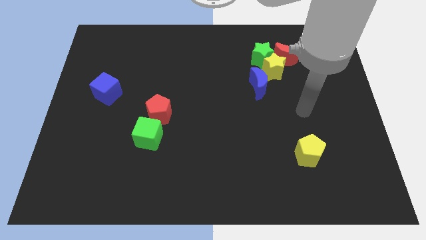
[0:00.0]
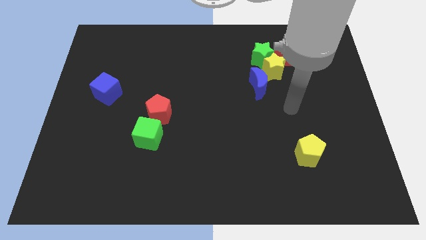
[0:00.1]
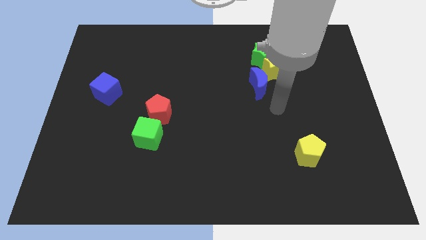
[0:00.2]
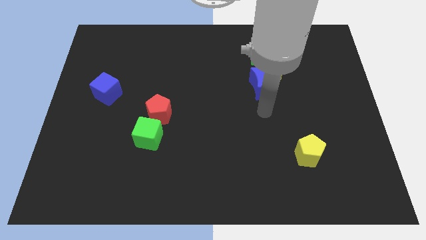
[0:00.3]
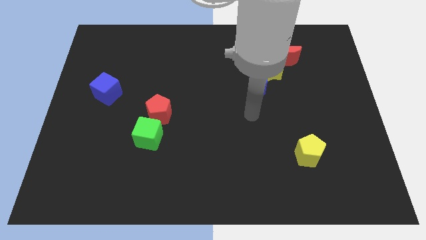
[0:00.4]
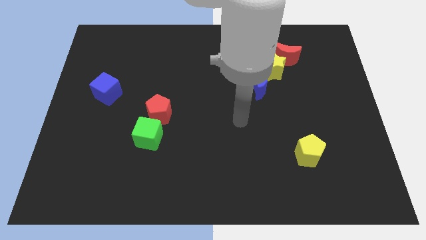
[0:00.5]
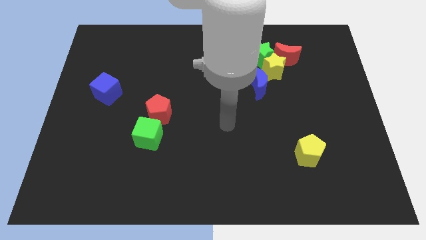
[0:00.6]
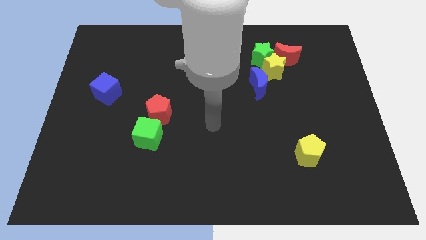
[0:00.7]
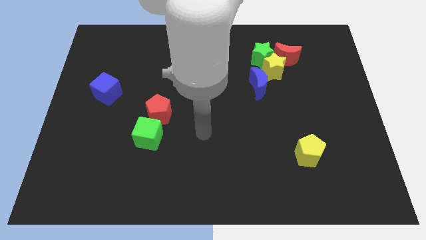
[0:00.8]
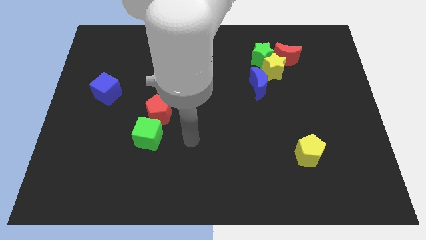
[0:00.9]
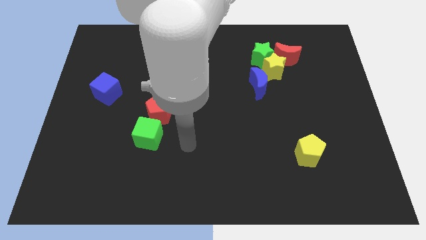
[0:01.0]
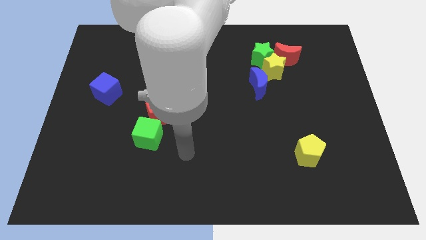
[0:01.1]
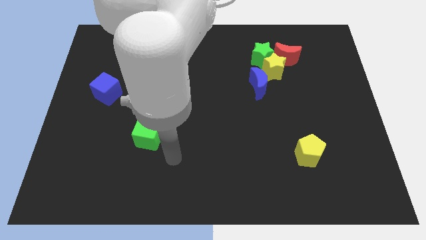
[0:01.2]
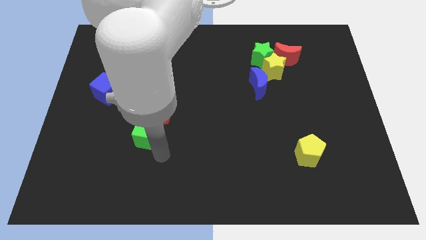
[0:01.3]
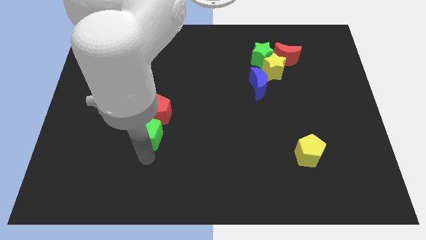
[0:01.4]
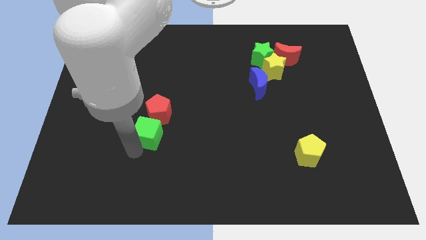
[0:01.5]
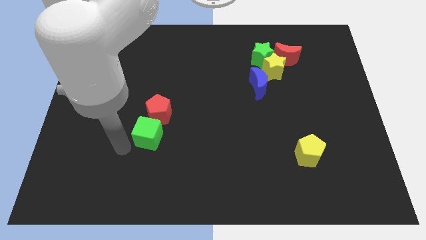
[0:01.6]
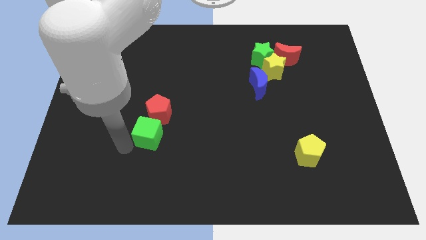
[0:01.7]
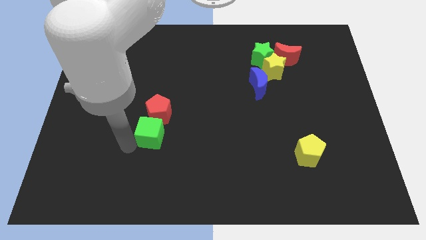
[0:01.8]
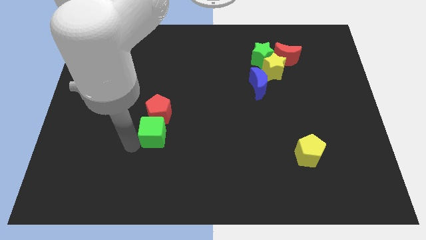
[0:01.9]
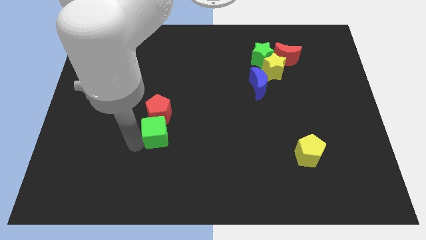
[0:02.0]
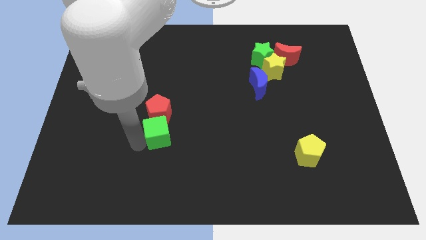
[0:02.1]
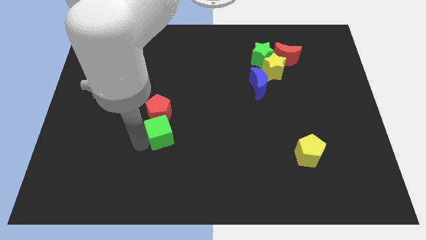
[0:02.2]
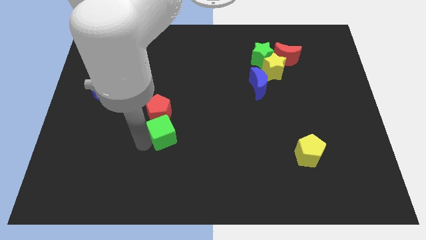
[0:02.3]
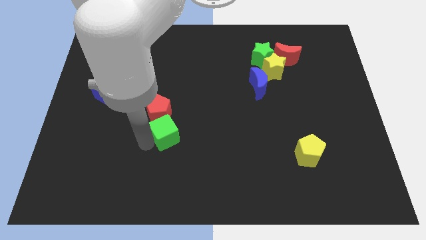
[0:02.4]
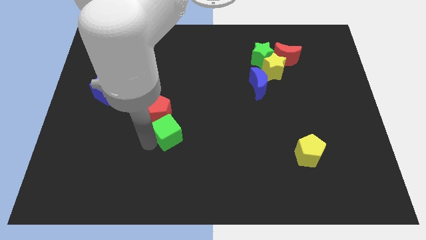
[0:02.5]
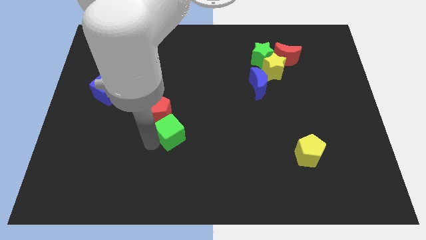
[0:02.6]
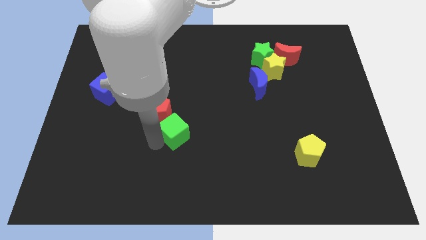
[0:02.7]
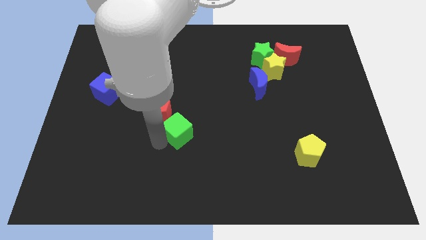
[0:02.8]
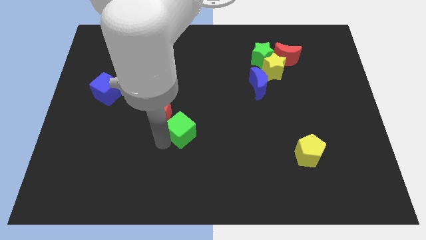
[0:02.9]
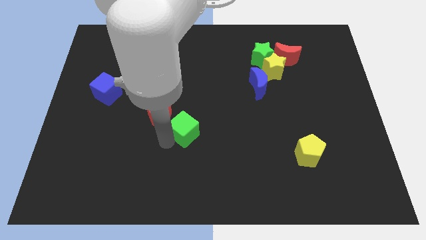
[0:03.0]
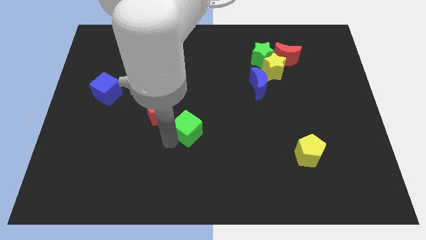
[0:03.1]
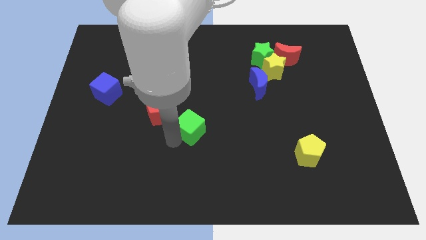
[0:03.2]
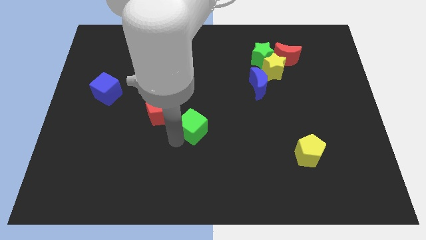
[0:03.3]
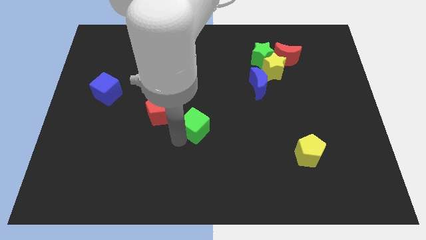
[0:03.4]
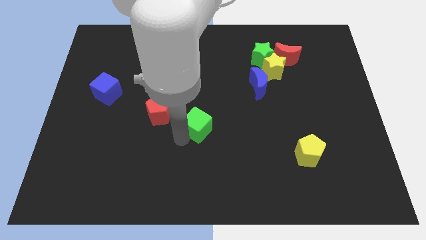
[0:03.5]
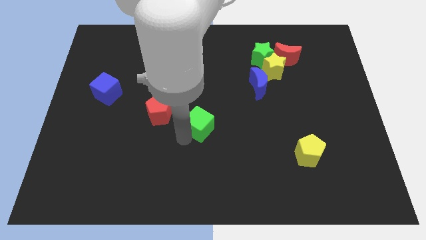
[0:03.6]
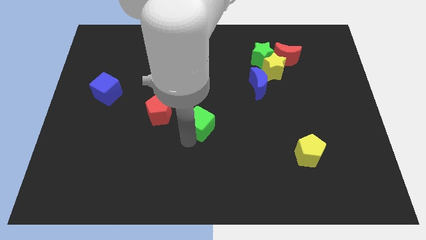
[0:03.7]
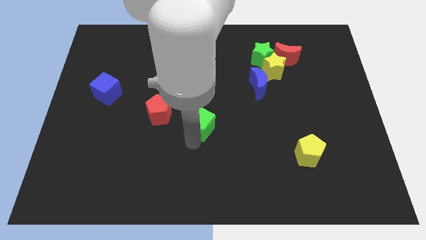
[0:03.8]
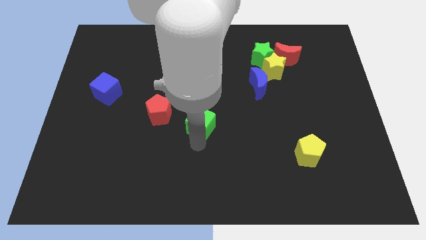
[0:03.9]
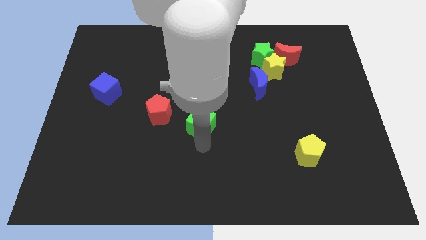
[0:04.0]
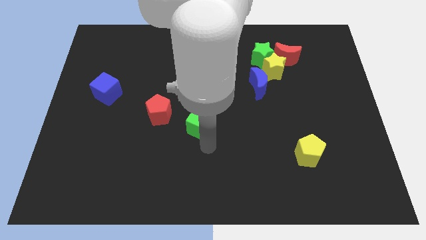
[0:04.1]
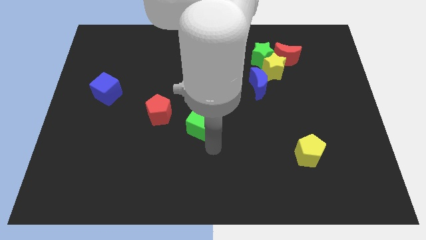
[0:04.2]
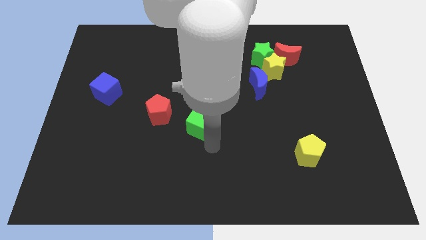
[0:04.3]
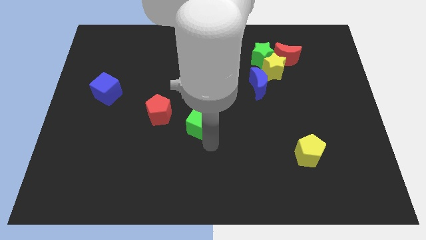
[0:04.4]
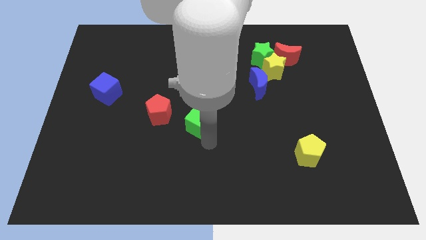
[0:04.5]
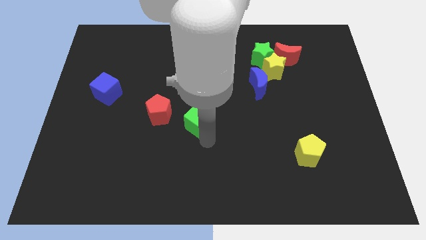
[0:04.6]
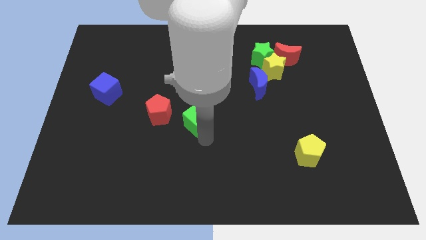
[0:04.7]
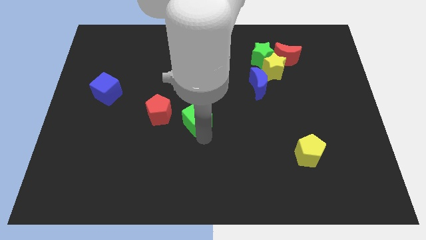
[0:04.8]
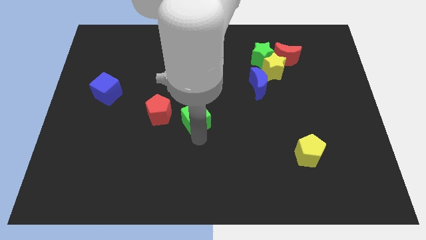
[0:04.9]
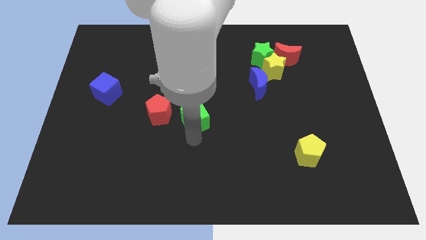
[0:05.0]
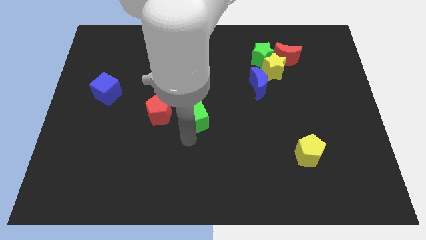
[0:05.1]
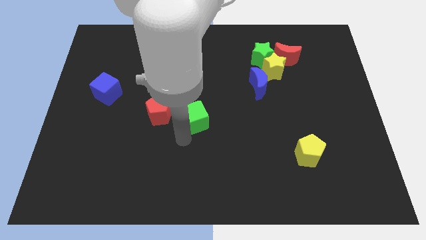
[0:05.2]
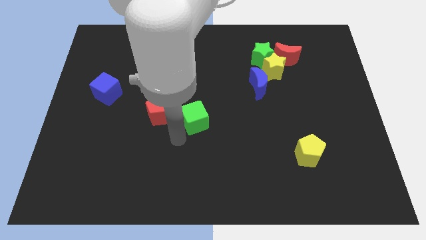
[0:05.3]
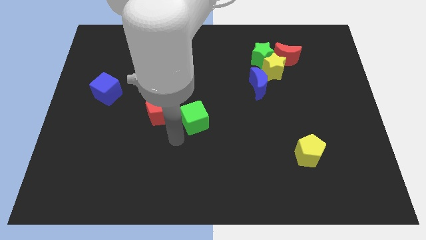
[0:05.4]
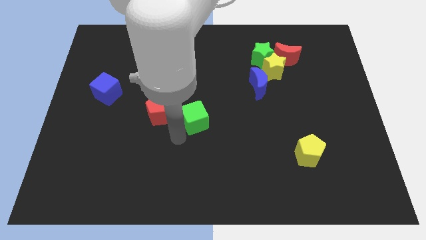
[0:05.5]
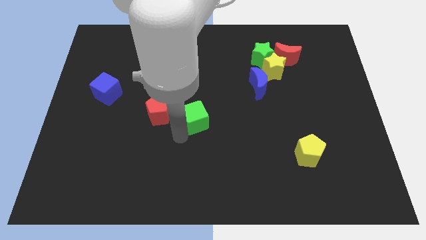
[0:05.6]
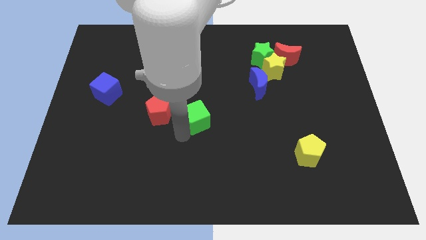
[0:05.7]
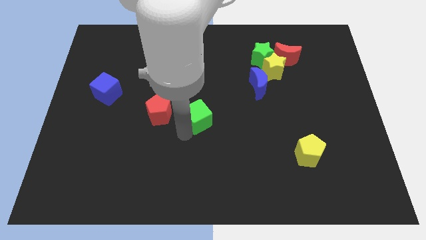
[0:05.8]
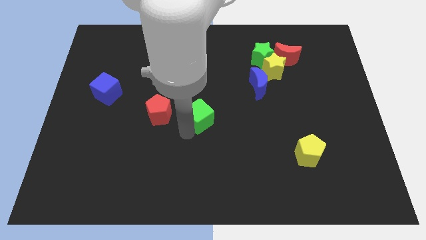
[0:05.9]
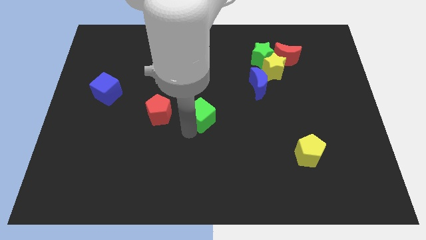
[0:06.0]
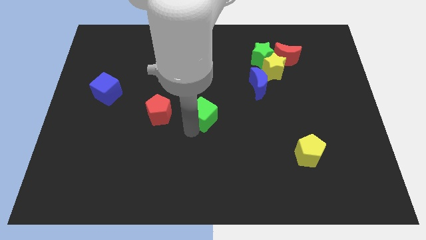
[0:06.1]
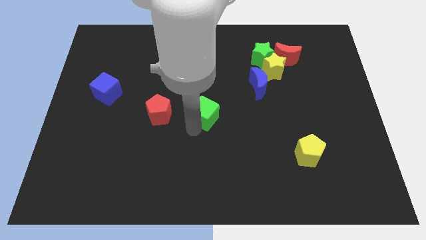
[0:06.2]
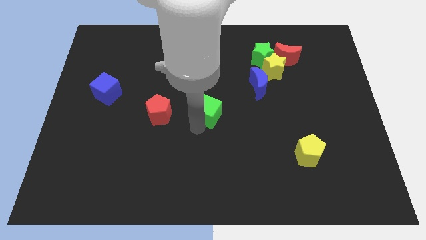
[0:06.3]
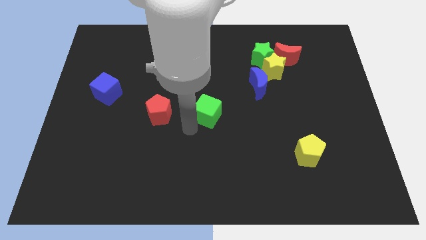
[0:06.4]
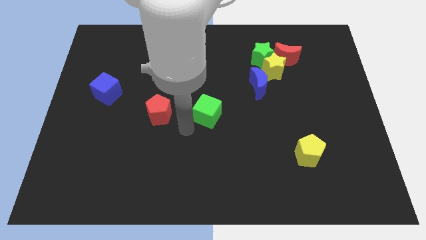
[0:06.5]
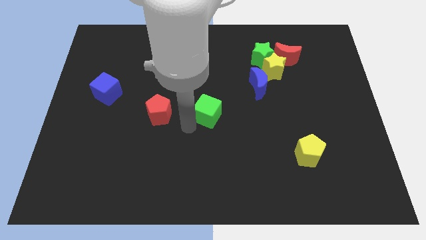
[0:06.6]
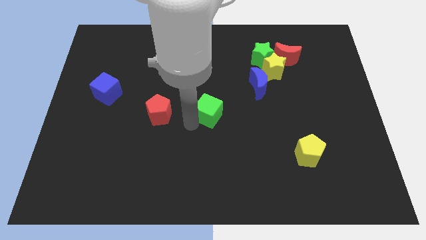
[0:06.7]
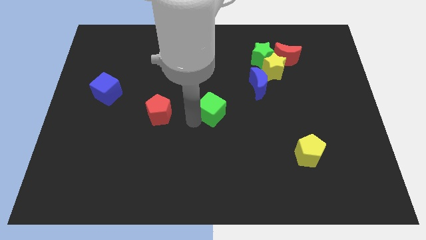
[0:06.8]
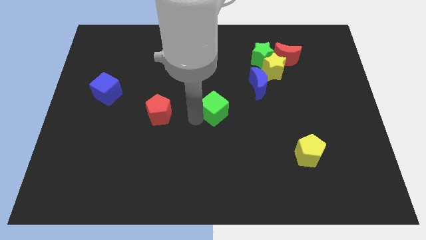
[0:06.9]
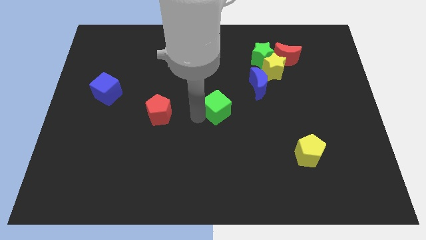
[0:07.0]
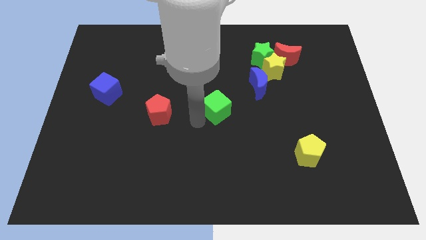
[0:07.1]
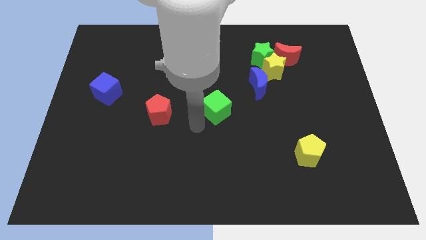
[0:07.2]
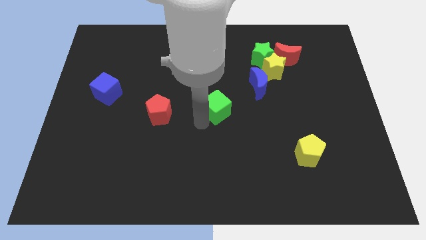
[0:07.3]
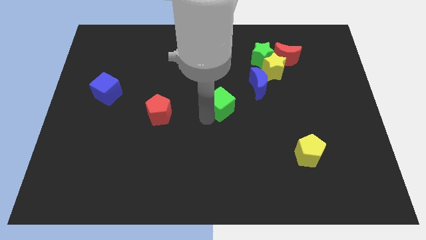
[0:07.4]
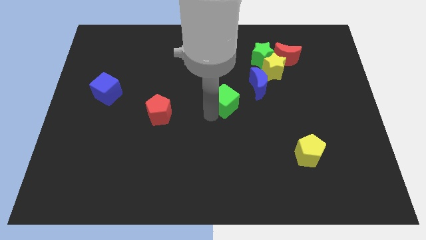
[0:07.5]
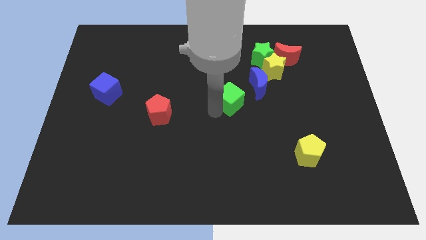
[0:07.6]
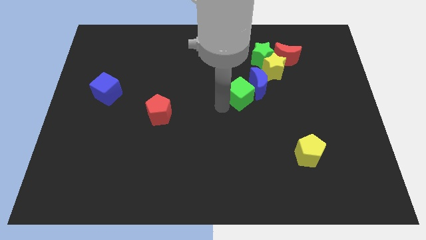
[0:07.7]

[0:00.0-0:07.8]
move the green cube to the bottom left of the yellow star
